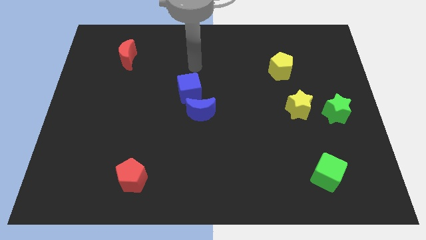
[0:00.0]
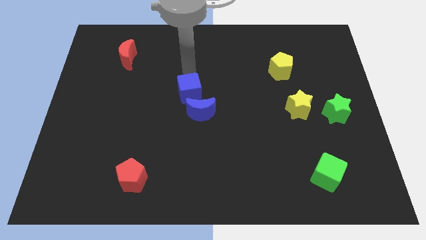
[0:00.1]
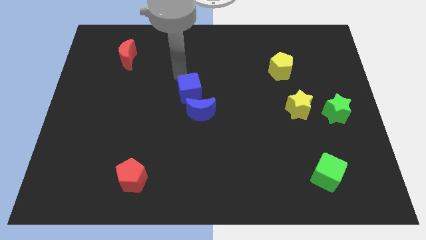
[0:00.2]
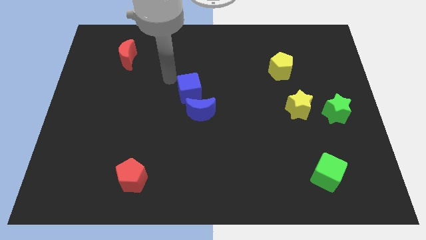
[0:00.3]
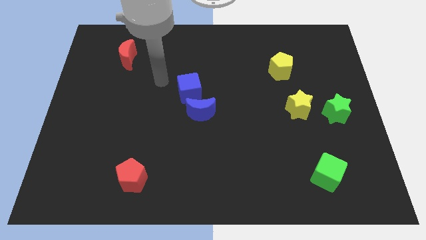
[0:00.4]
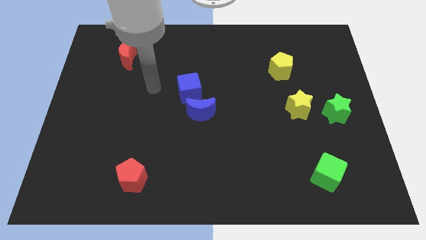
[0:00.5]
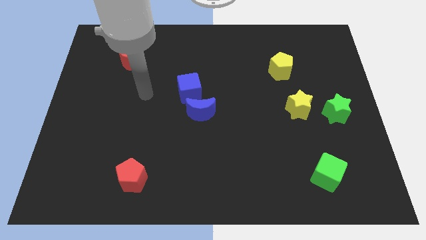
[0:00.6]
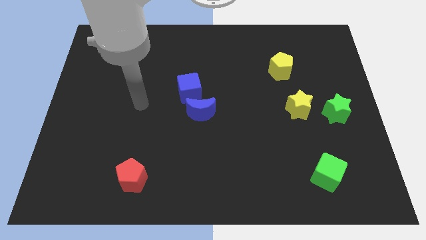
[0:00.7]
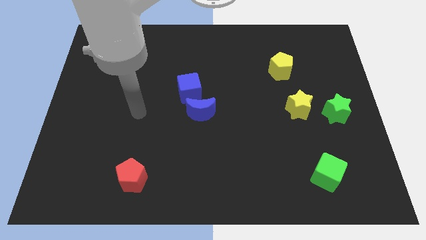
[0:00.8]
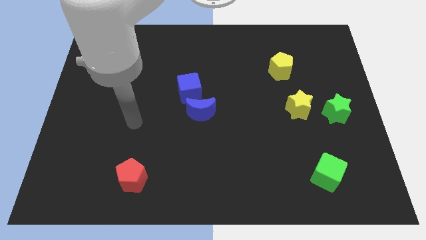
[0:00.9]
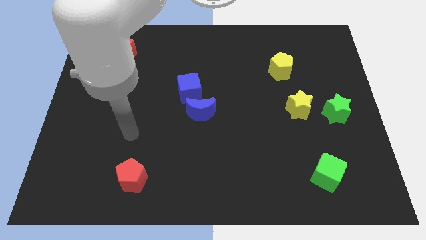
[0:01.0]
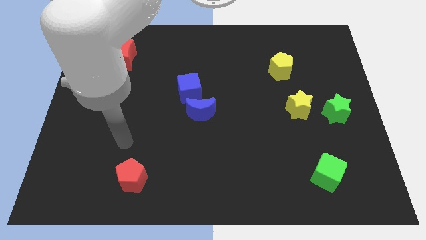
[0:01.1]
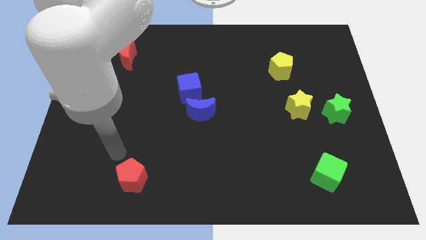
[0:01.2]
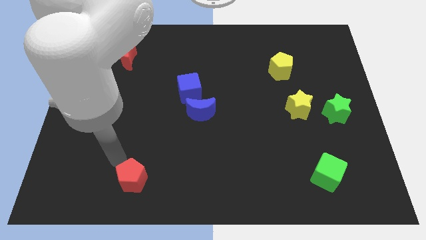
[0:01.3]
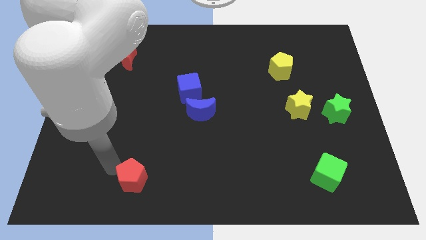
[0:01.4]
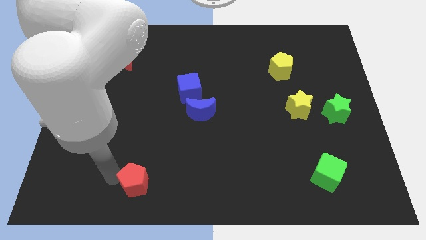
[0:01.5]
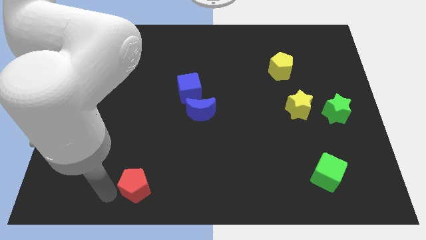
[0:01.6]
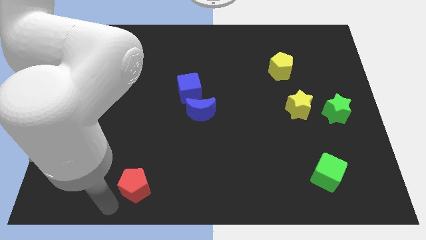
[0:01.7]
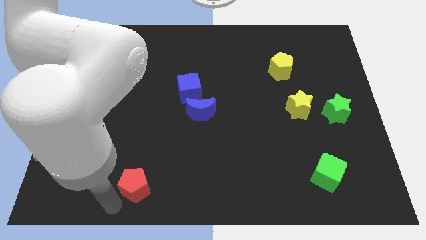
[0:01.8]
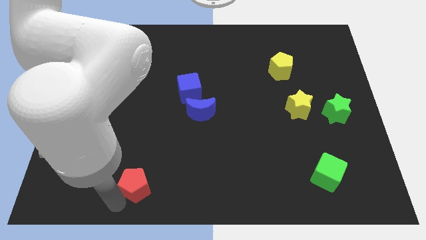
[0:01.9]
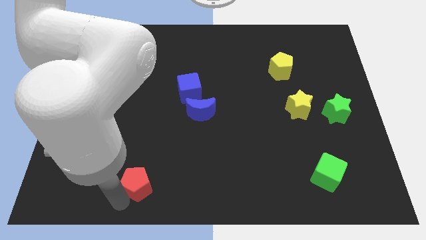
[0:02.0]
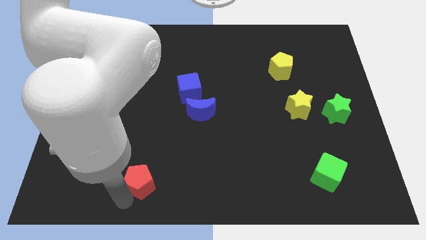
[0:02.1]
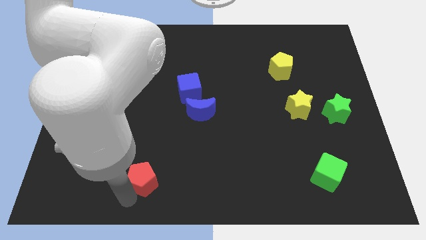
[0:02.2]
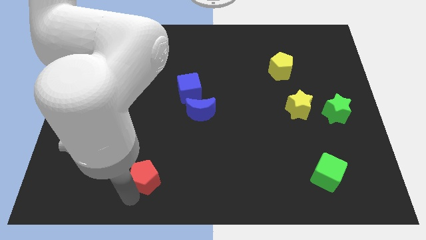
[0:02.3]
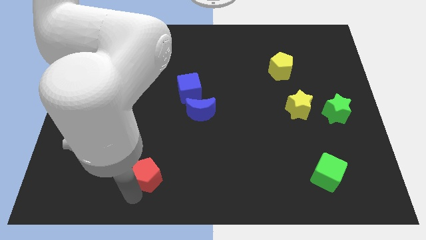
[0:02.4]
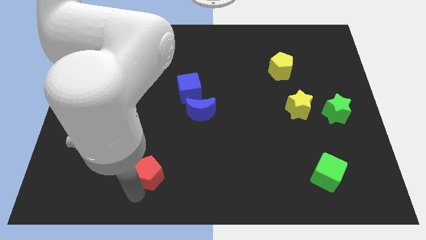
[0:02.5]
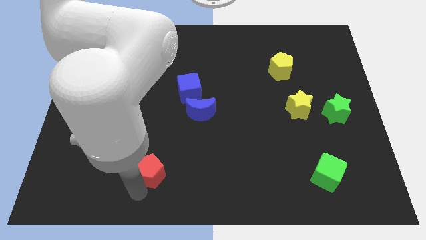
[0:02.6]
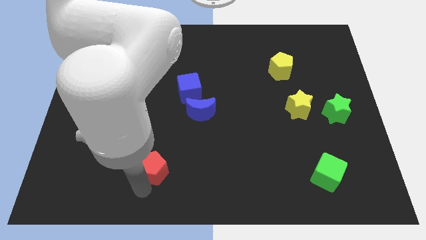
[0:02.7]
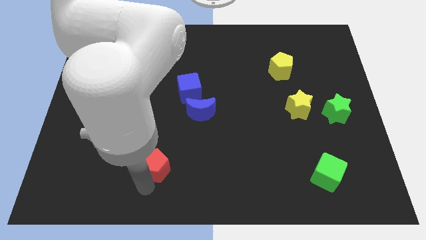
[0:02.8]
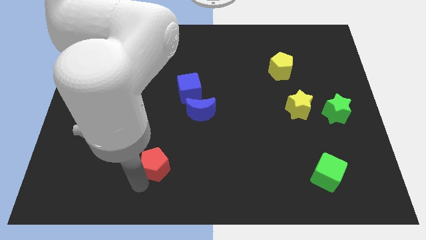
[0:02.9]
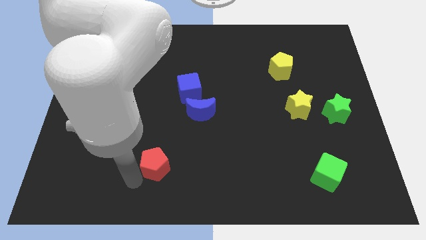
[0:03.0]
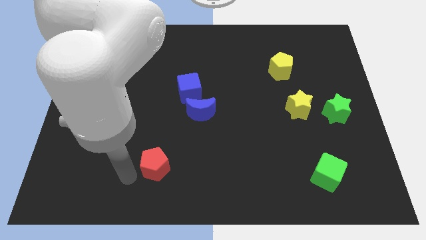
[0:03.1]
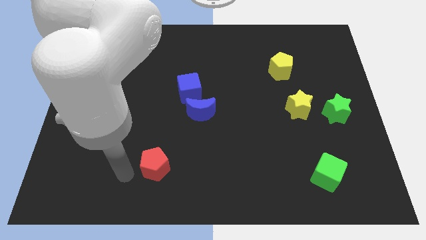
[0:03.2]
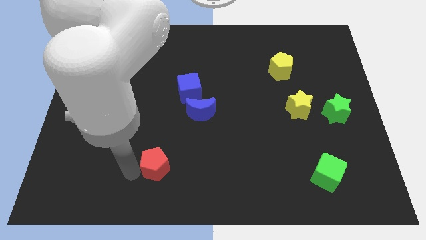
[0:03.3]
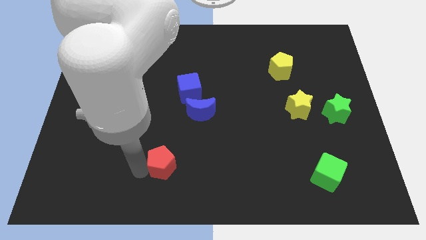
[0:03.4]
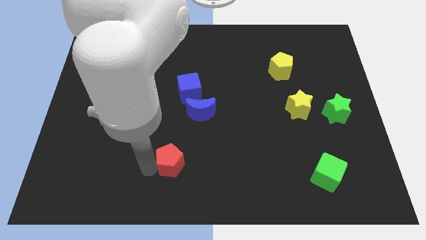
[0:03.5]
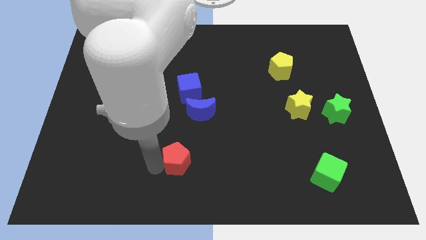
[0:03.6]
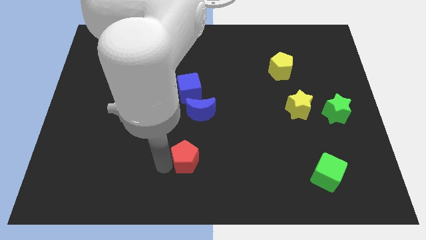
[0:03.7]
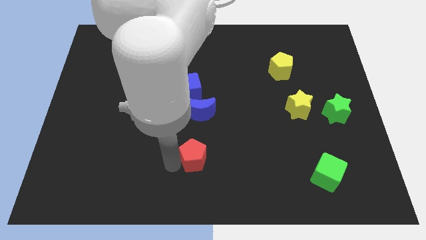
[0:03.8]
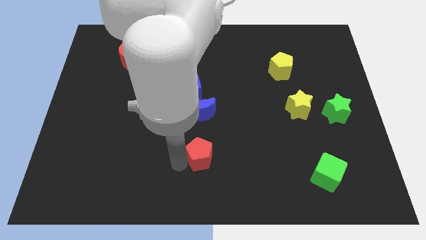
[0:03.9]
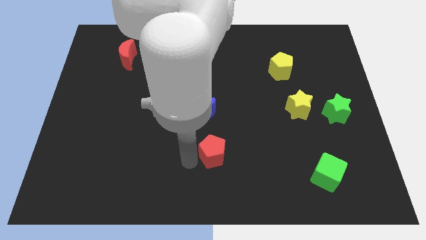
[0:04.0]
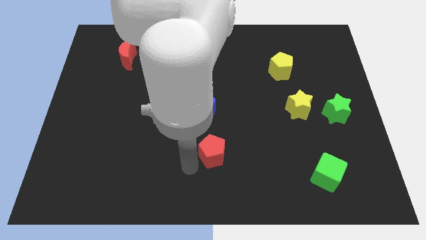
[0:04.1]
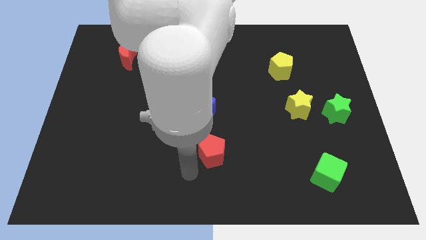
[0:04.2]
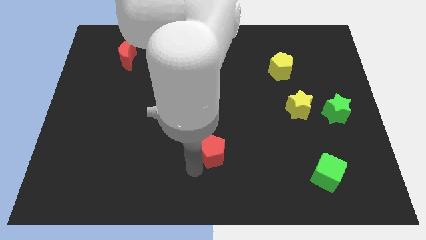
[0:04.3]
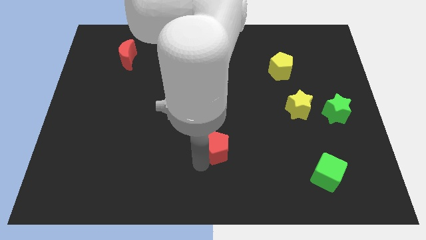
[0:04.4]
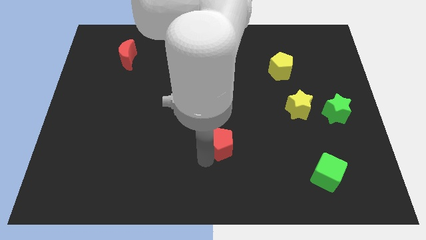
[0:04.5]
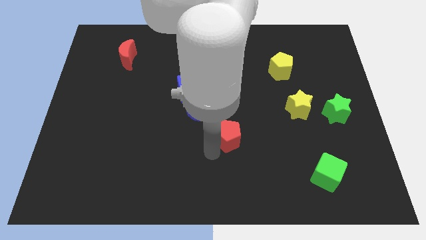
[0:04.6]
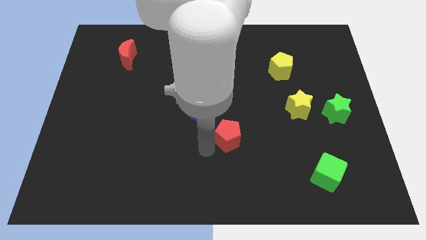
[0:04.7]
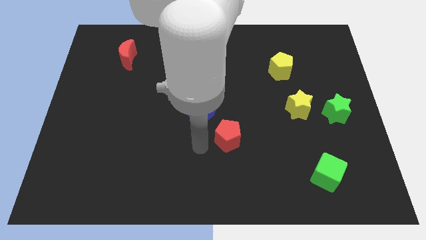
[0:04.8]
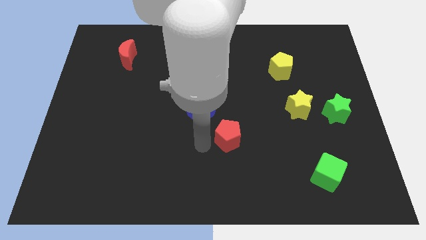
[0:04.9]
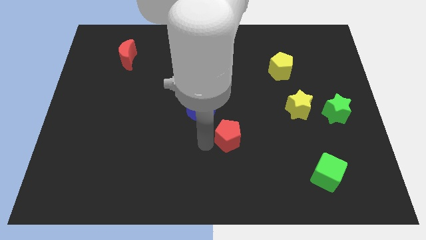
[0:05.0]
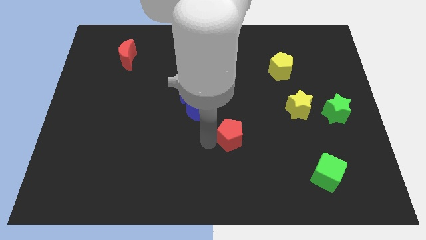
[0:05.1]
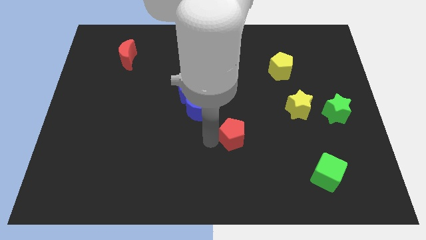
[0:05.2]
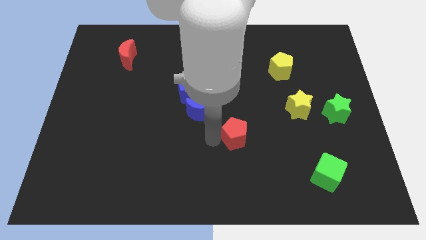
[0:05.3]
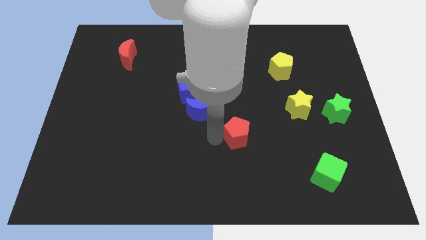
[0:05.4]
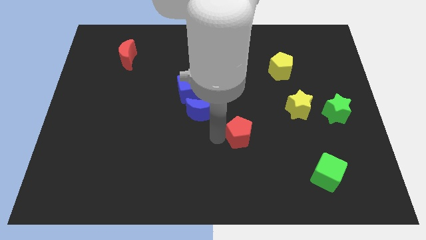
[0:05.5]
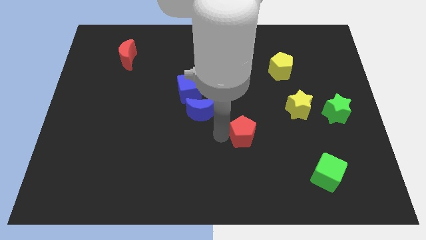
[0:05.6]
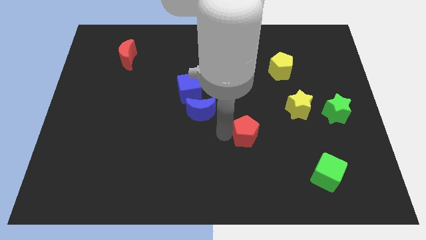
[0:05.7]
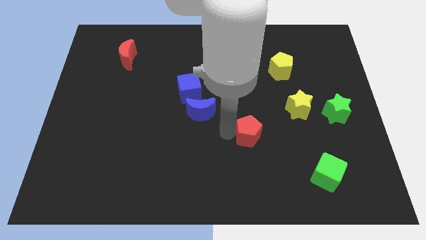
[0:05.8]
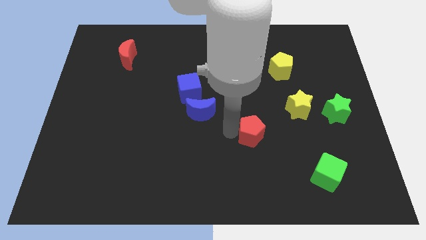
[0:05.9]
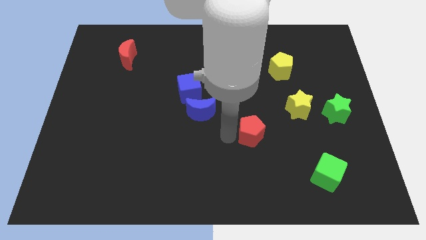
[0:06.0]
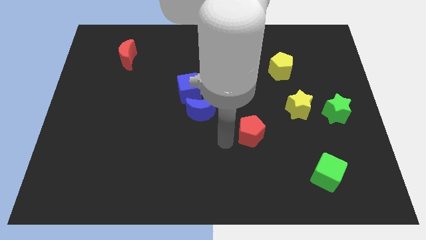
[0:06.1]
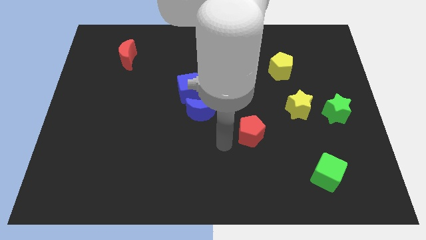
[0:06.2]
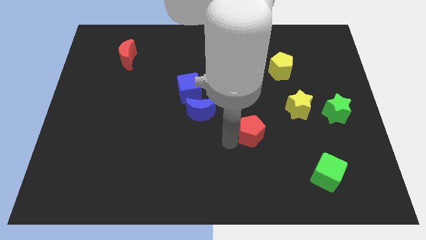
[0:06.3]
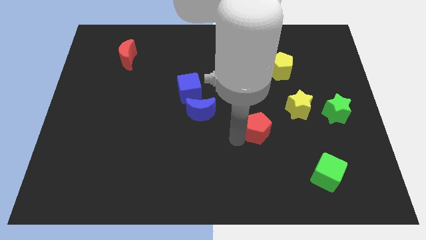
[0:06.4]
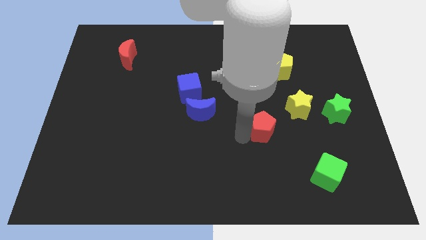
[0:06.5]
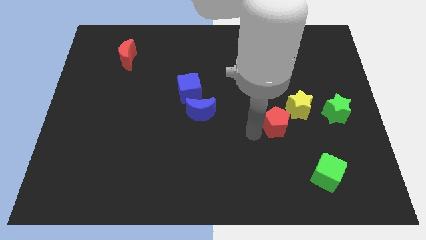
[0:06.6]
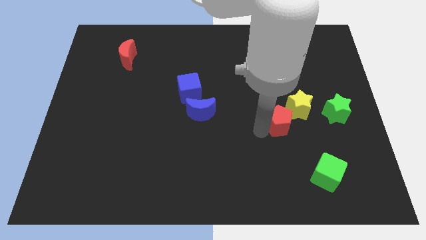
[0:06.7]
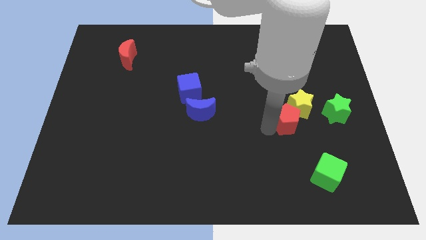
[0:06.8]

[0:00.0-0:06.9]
push the red pentagon to the yellow star

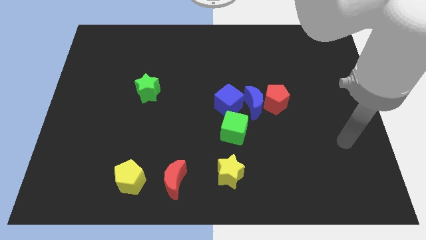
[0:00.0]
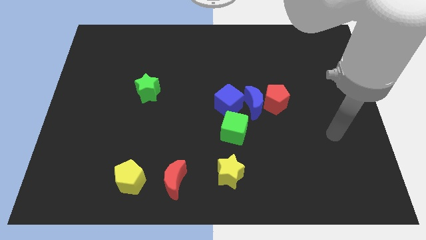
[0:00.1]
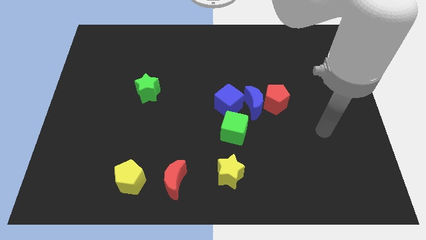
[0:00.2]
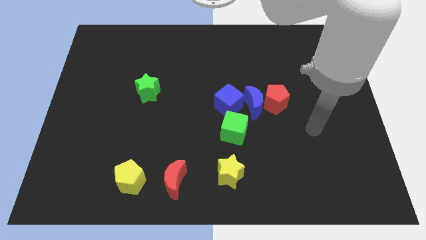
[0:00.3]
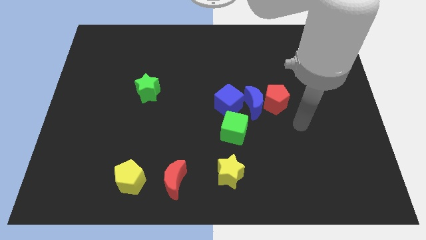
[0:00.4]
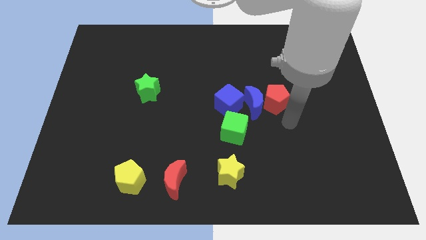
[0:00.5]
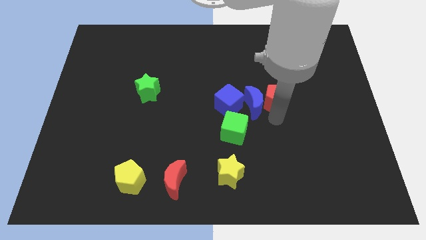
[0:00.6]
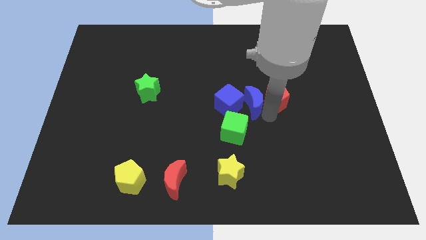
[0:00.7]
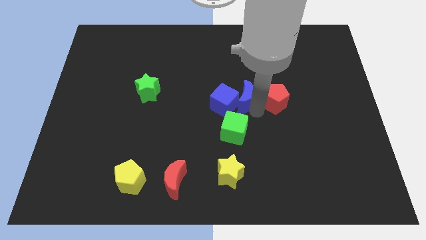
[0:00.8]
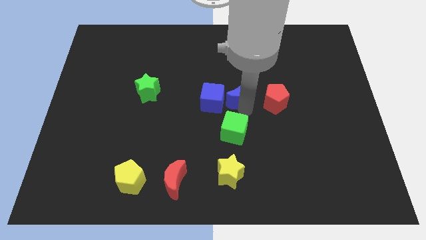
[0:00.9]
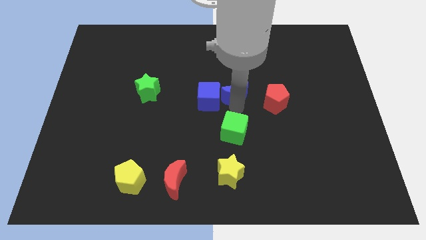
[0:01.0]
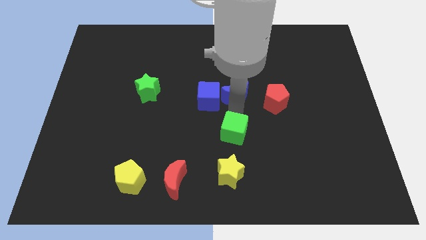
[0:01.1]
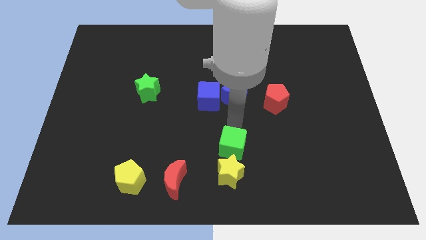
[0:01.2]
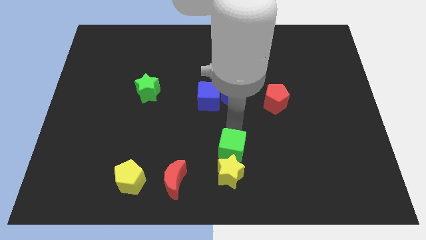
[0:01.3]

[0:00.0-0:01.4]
push the green cube towards the yellow star
